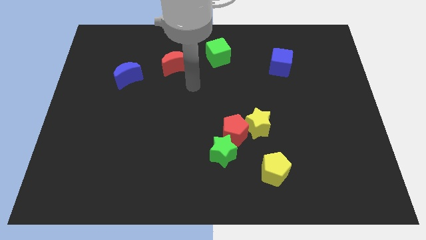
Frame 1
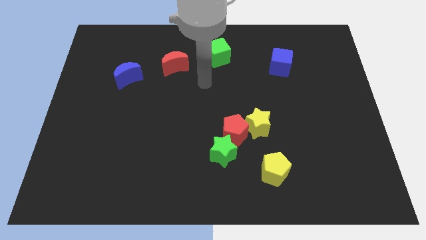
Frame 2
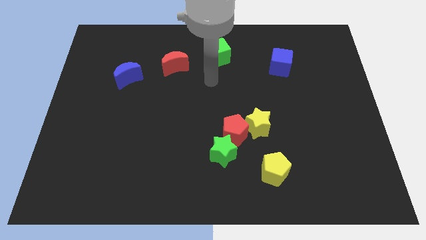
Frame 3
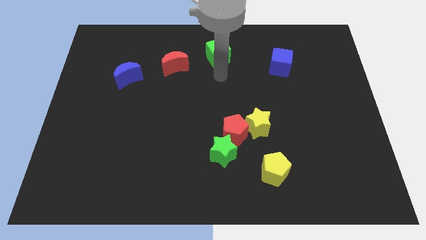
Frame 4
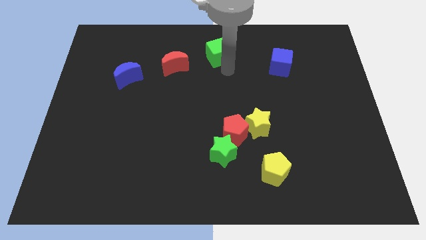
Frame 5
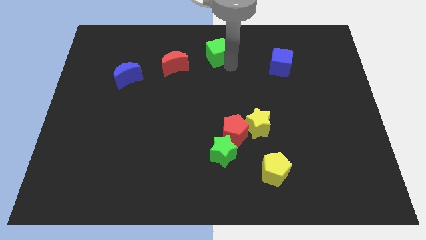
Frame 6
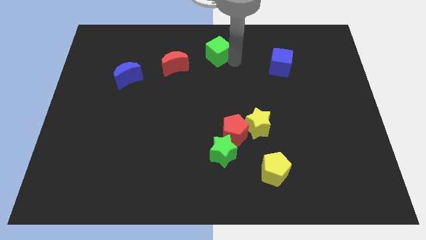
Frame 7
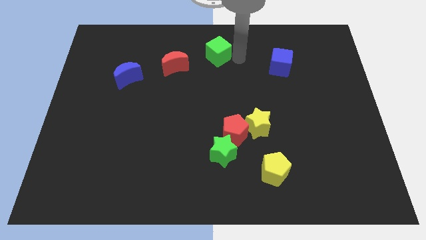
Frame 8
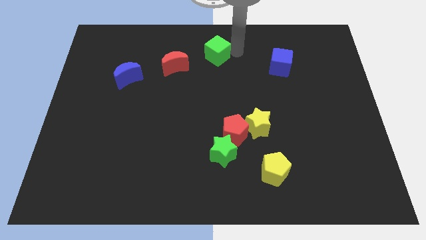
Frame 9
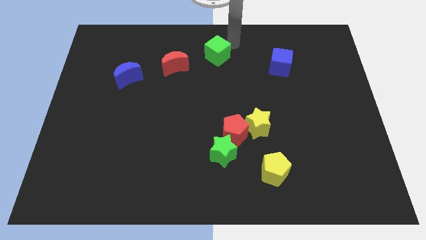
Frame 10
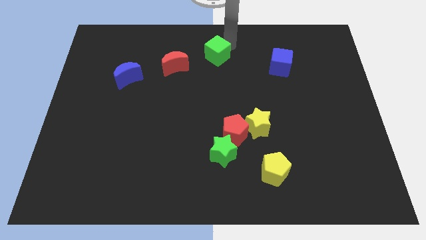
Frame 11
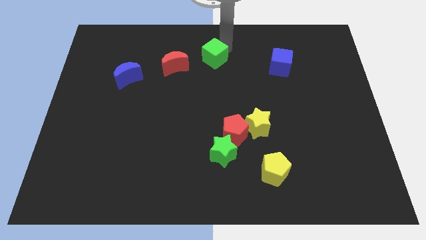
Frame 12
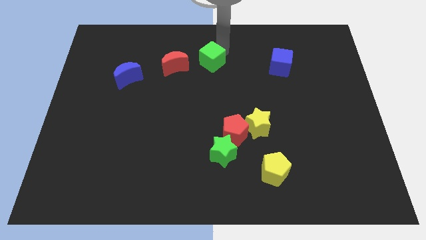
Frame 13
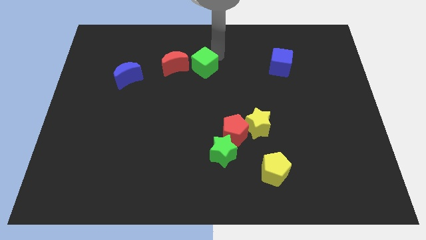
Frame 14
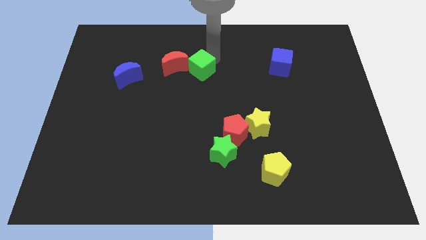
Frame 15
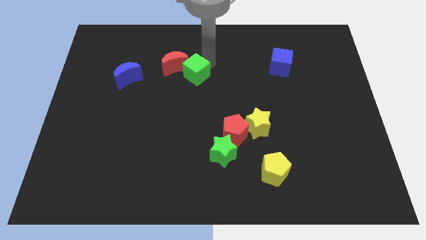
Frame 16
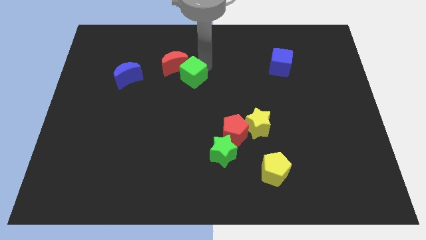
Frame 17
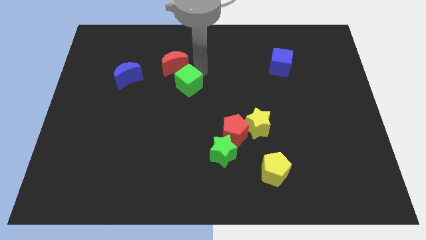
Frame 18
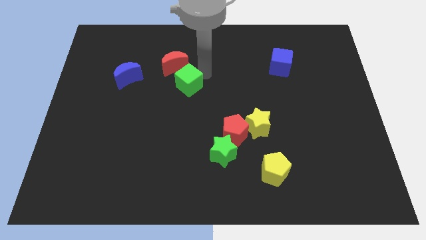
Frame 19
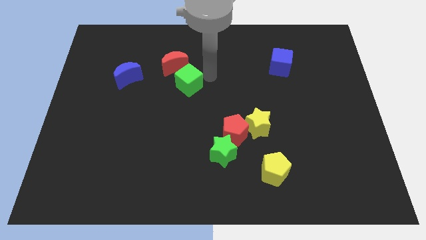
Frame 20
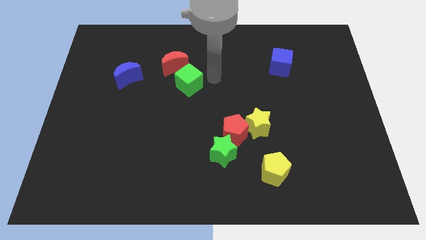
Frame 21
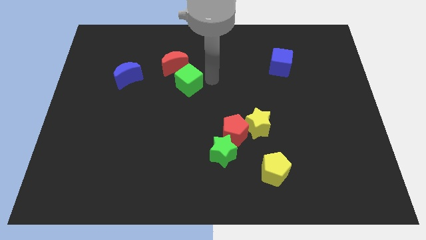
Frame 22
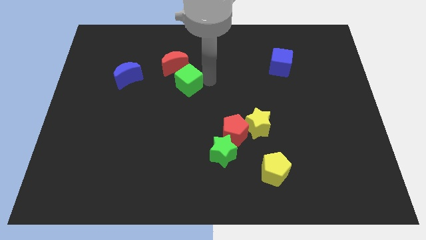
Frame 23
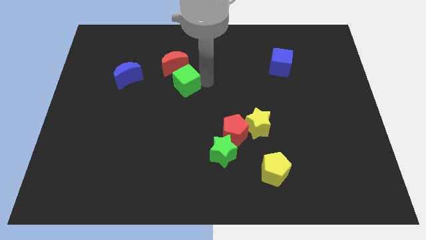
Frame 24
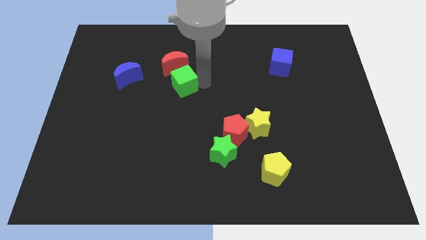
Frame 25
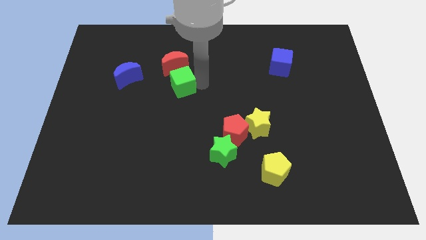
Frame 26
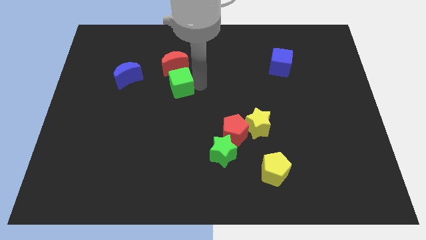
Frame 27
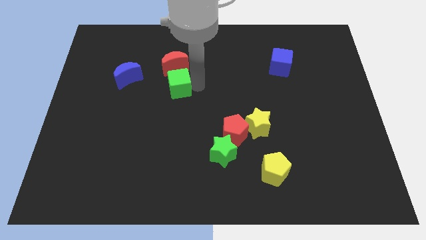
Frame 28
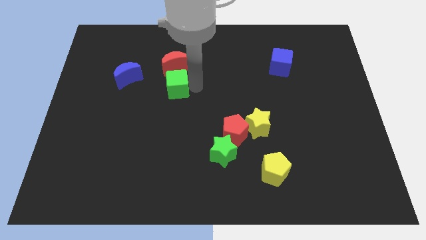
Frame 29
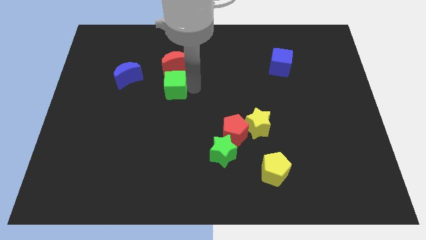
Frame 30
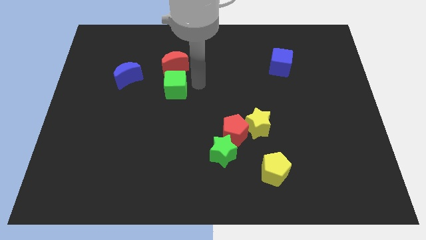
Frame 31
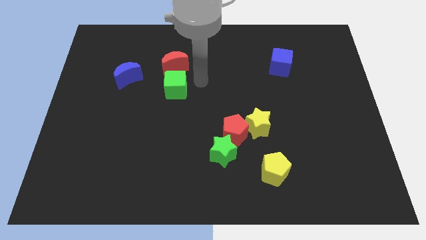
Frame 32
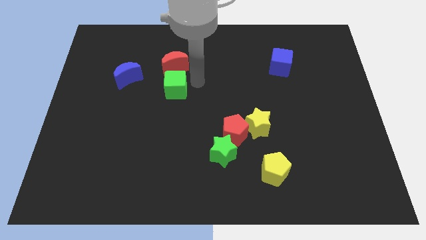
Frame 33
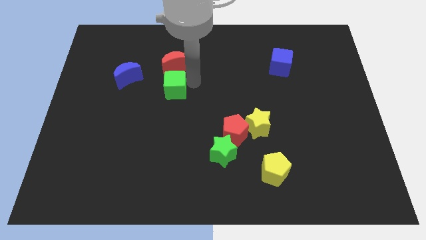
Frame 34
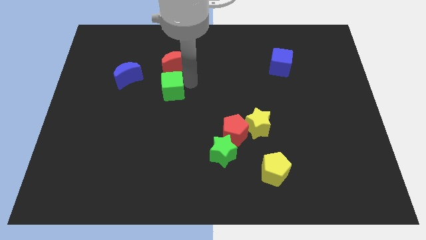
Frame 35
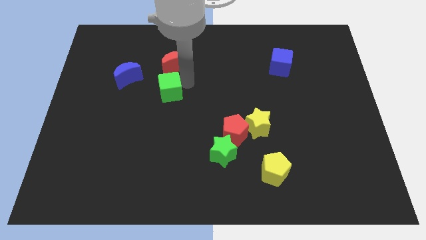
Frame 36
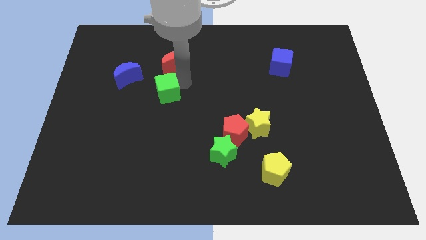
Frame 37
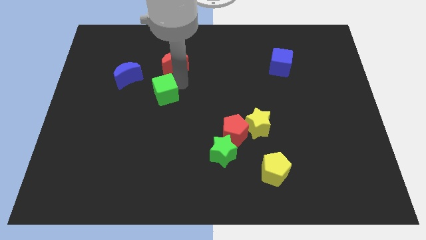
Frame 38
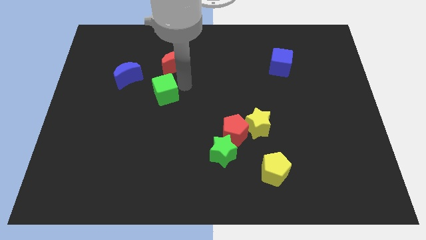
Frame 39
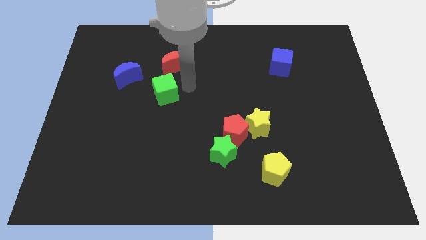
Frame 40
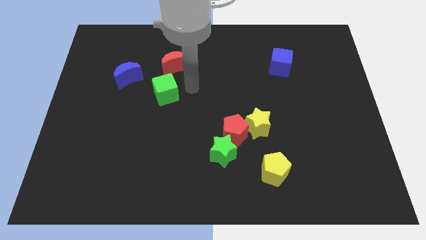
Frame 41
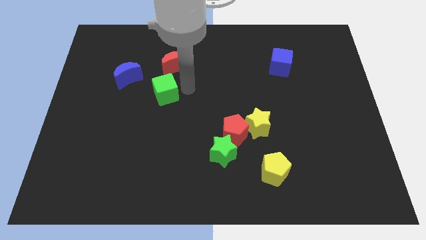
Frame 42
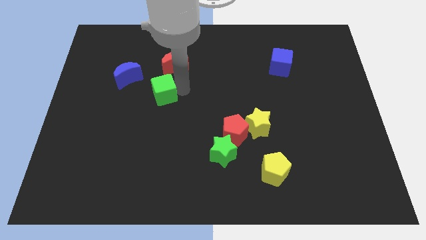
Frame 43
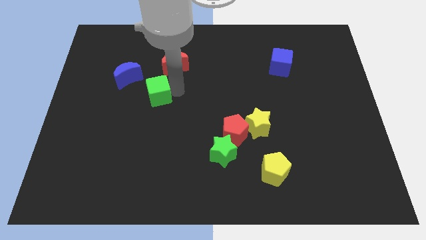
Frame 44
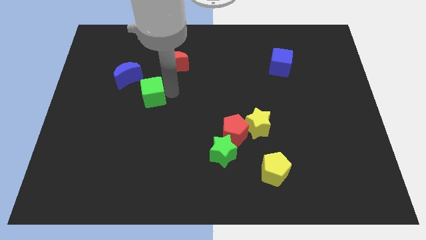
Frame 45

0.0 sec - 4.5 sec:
move the green cube down and to the left

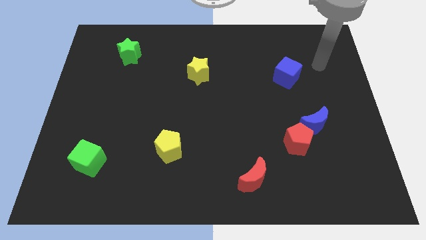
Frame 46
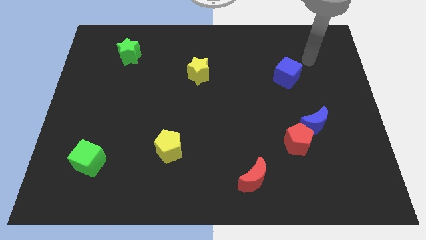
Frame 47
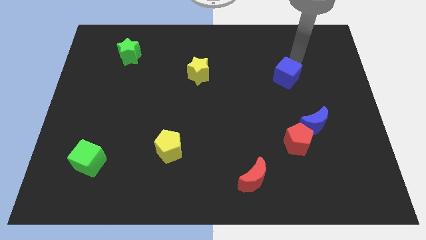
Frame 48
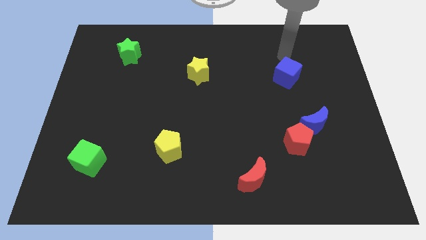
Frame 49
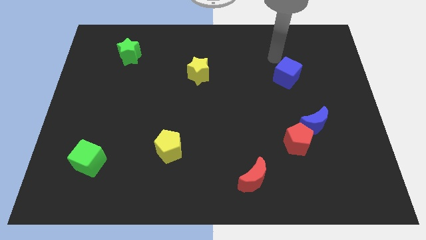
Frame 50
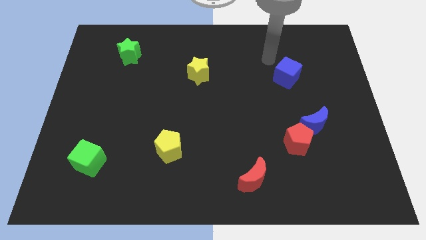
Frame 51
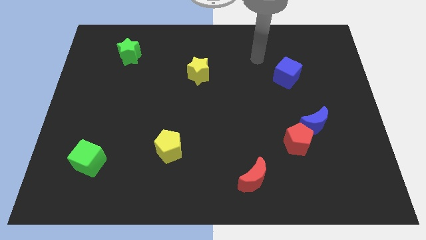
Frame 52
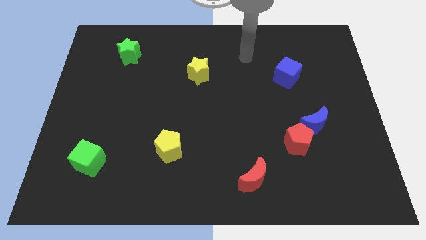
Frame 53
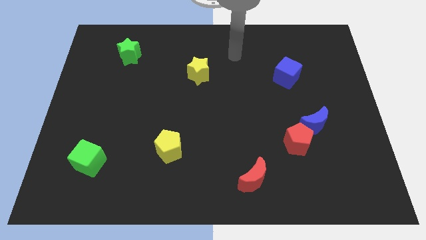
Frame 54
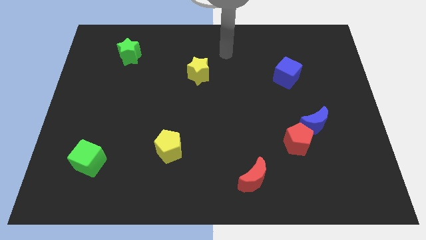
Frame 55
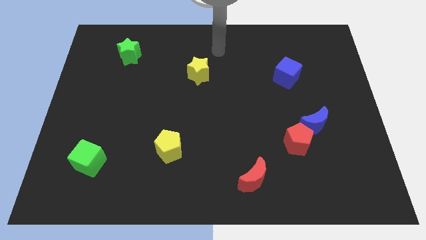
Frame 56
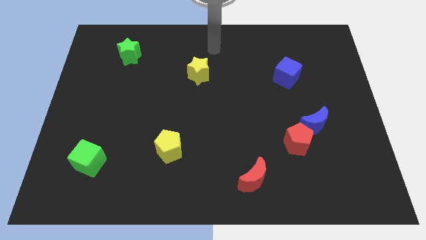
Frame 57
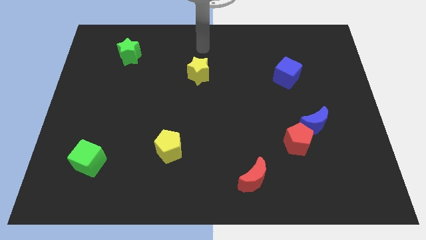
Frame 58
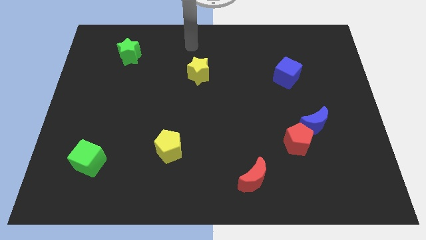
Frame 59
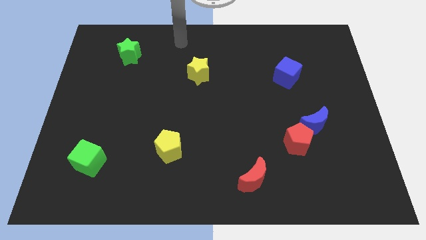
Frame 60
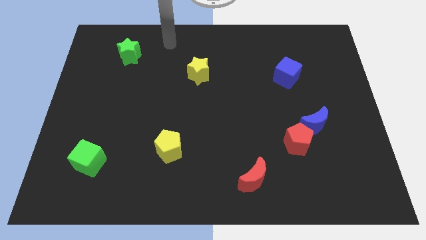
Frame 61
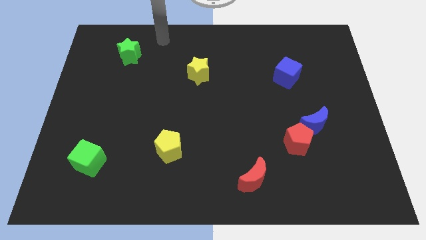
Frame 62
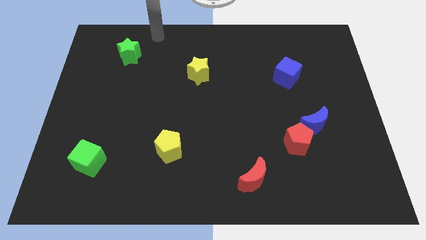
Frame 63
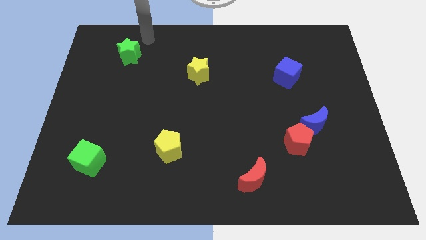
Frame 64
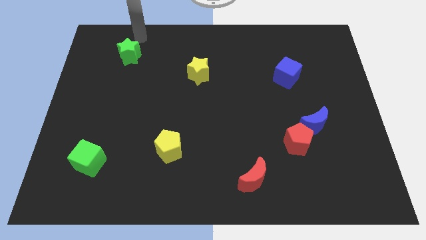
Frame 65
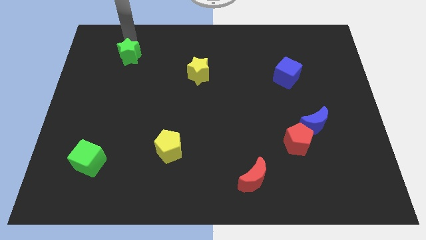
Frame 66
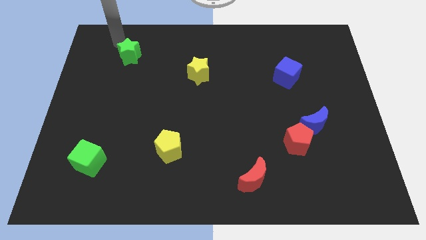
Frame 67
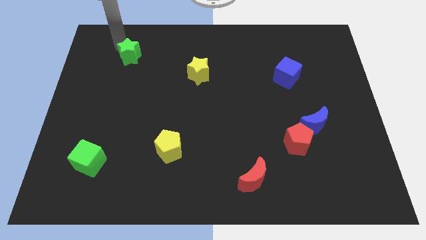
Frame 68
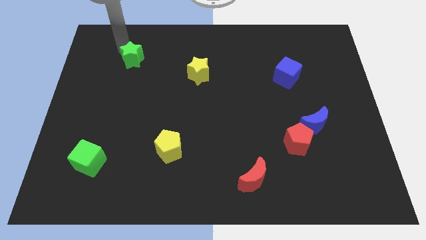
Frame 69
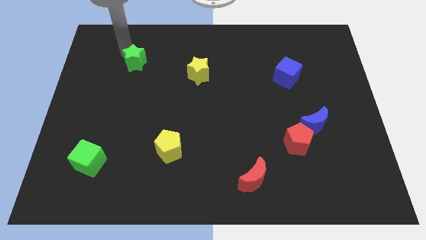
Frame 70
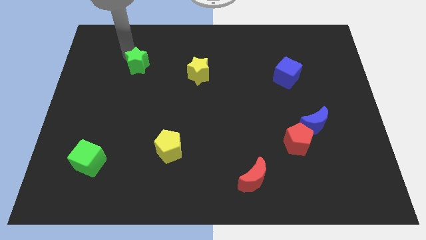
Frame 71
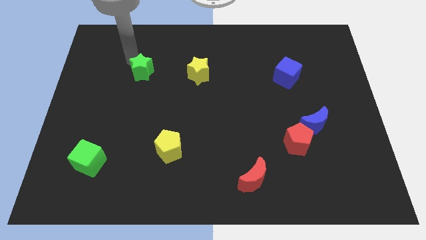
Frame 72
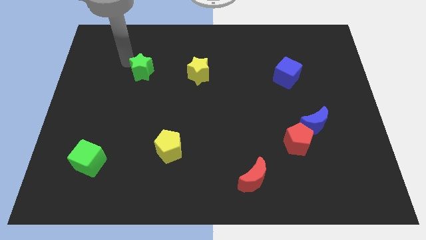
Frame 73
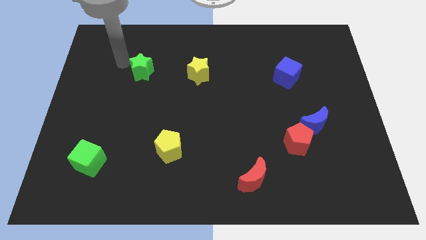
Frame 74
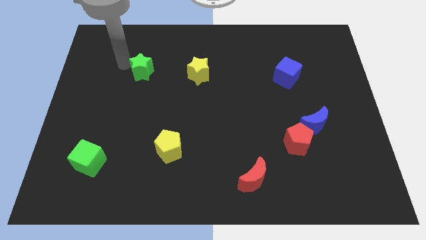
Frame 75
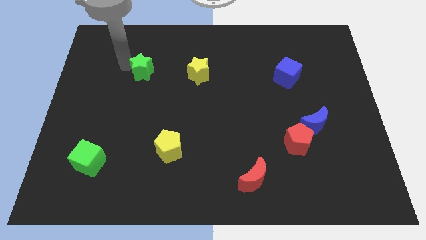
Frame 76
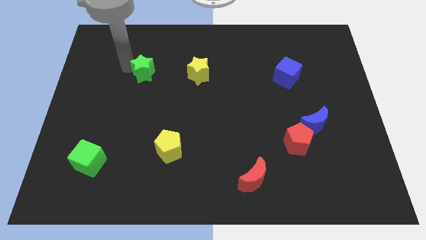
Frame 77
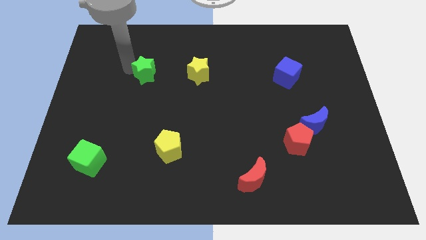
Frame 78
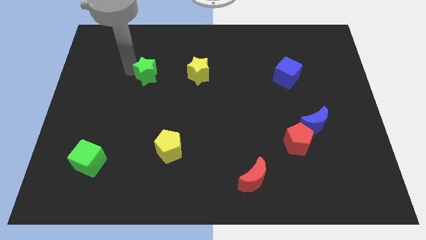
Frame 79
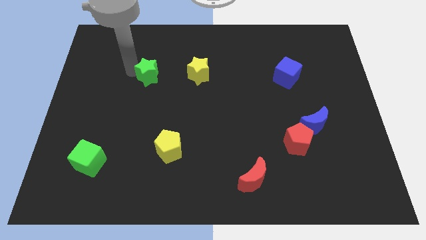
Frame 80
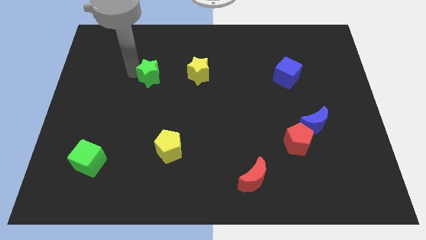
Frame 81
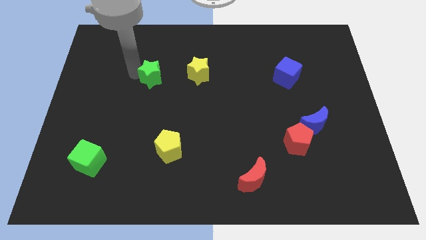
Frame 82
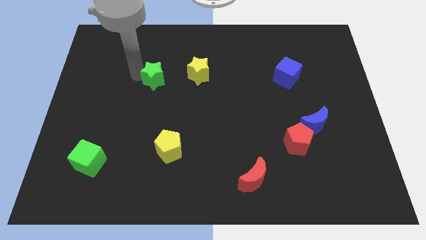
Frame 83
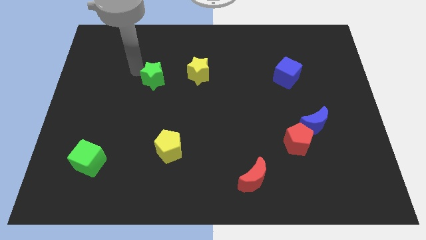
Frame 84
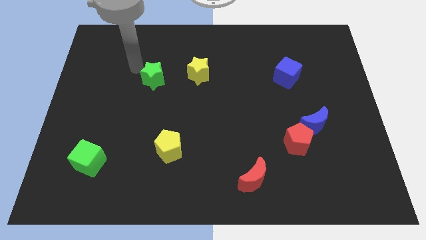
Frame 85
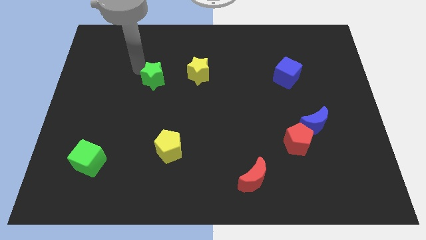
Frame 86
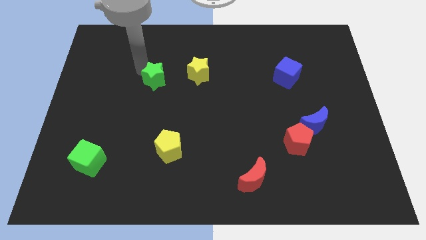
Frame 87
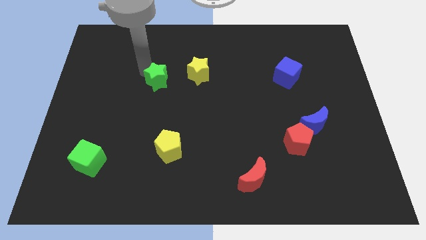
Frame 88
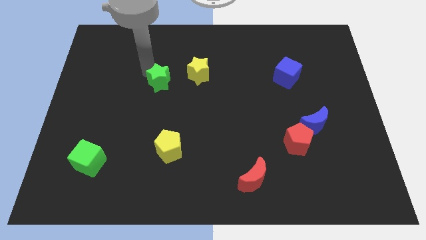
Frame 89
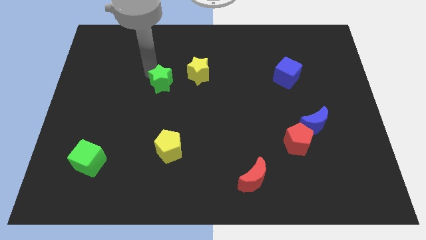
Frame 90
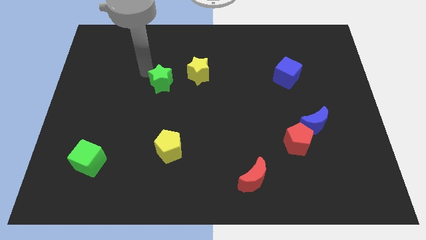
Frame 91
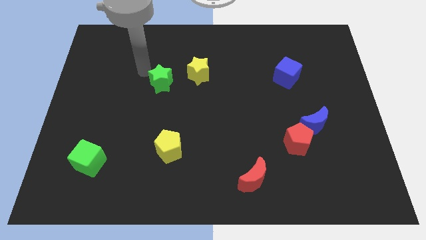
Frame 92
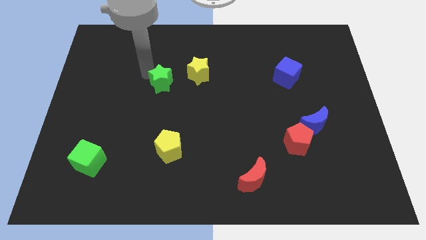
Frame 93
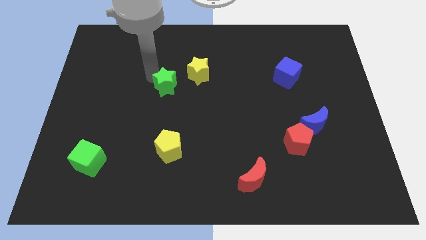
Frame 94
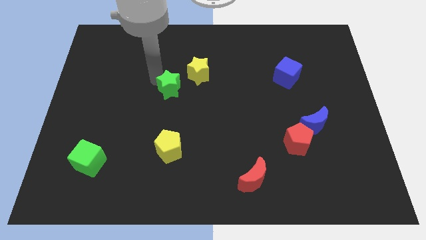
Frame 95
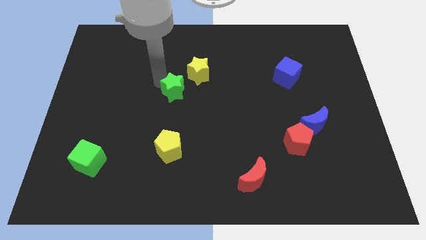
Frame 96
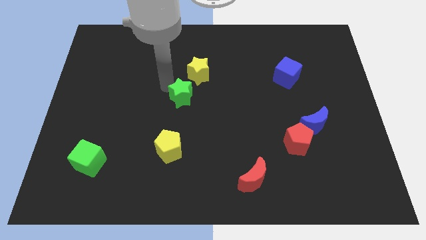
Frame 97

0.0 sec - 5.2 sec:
push the green star down and to the right
